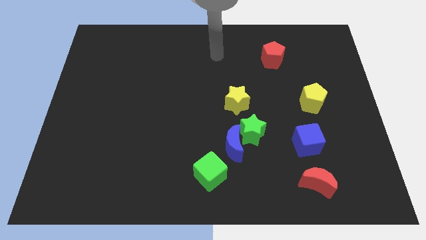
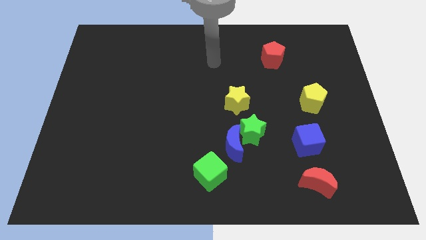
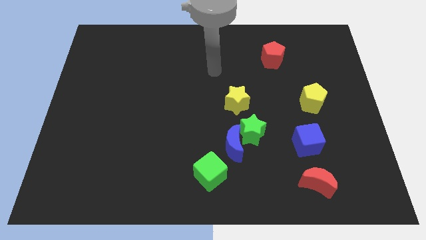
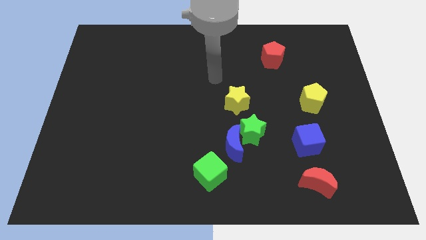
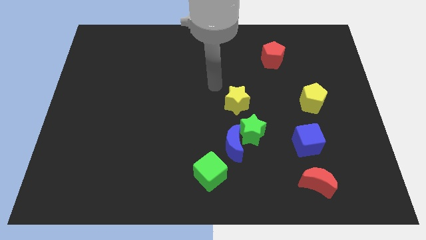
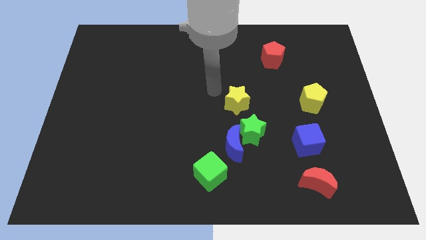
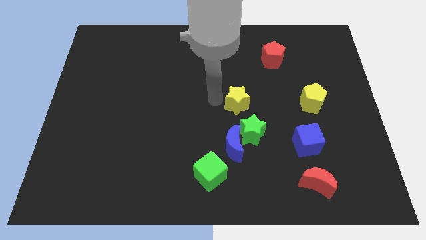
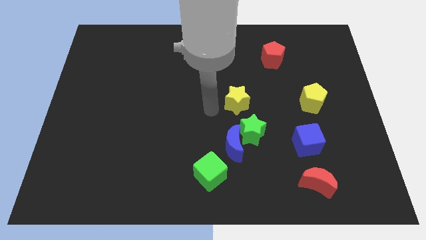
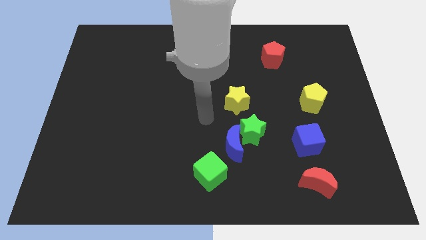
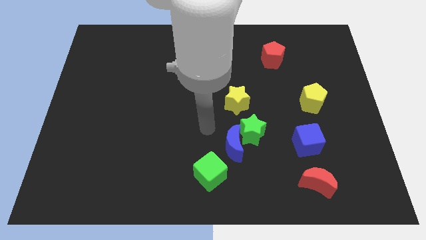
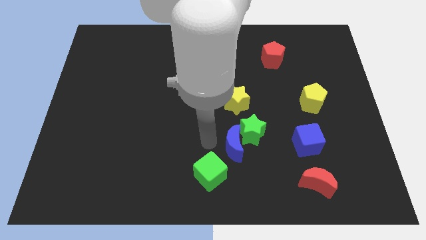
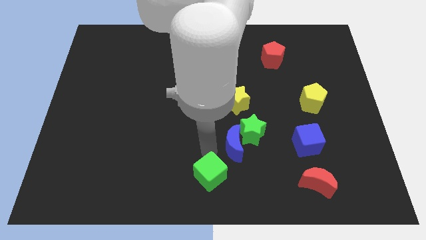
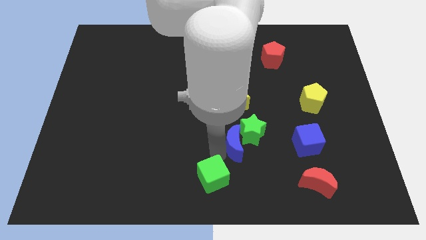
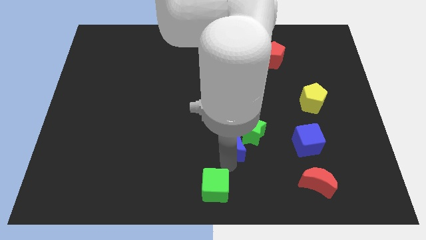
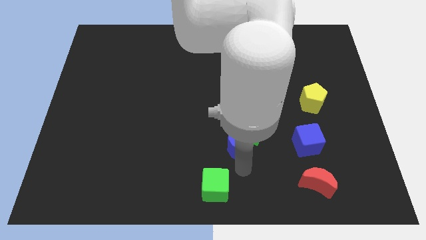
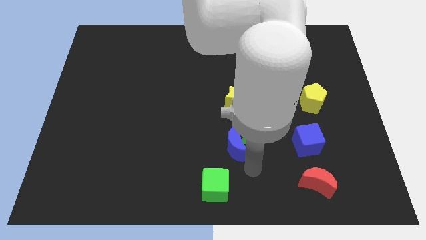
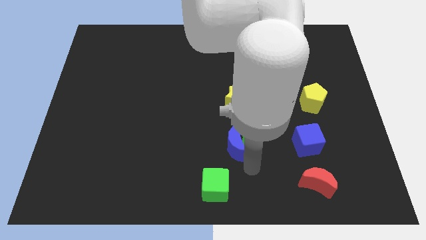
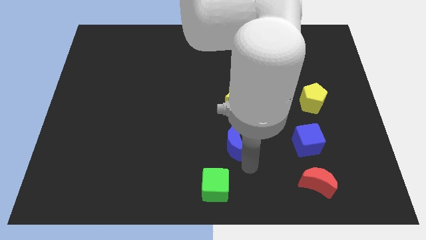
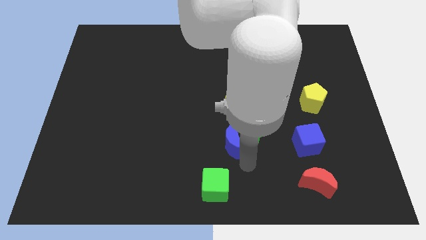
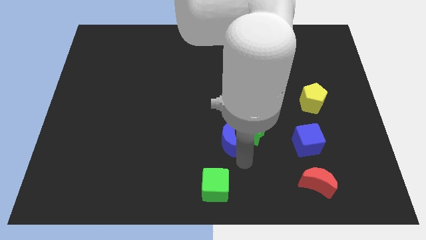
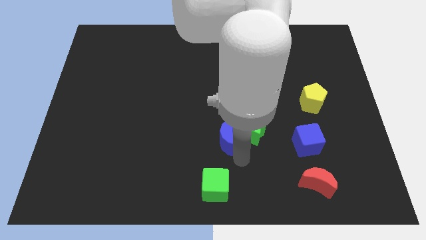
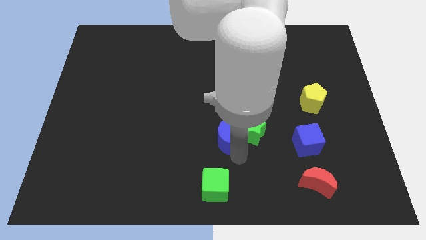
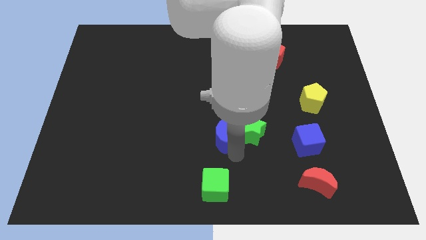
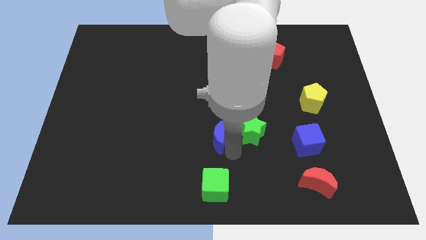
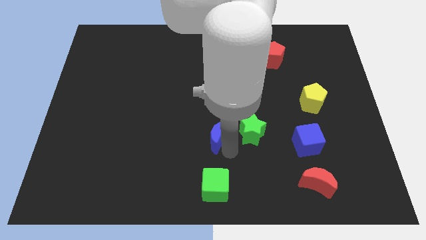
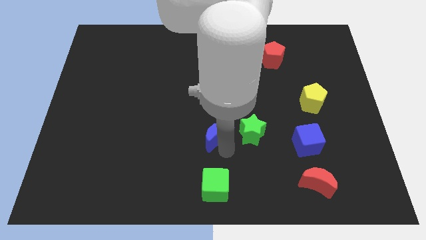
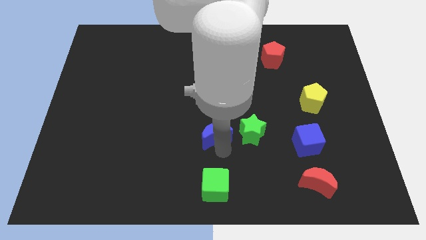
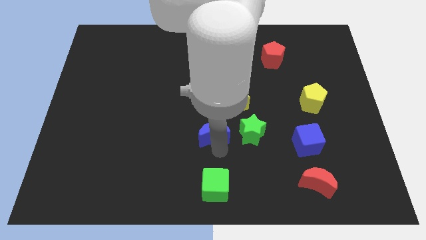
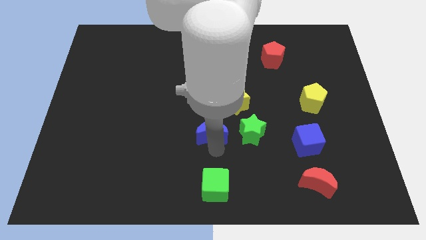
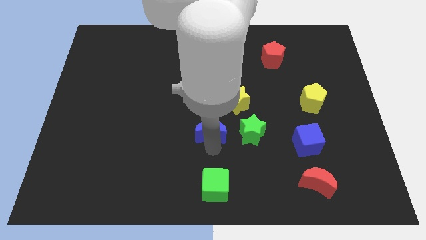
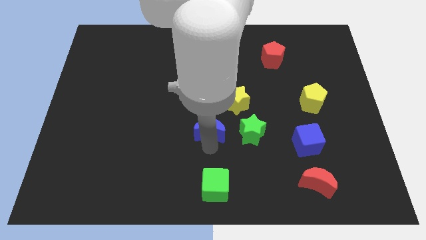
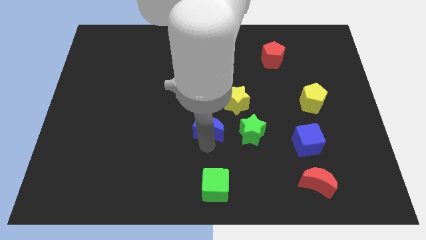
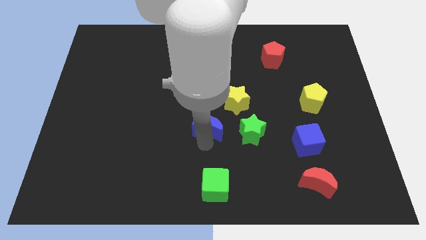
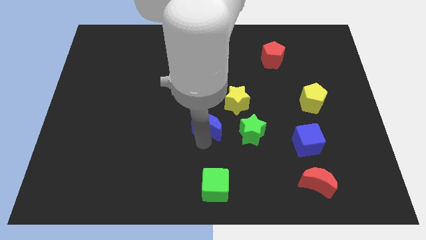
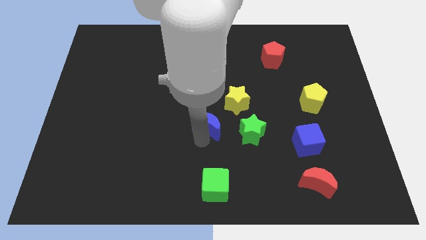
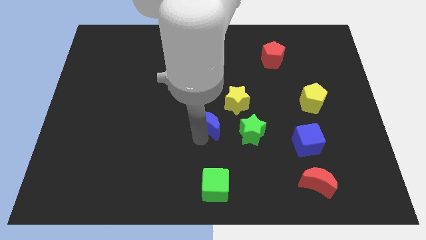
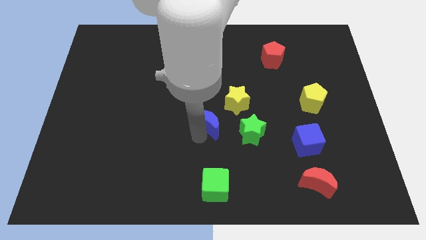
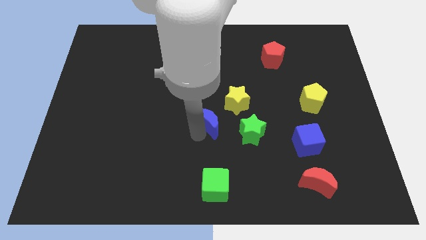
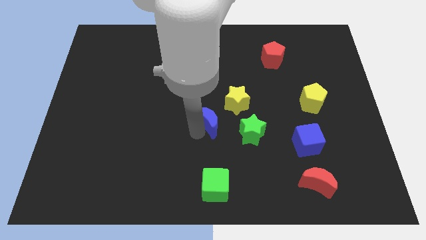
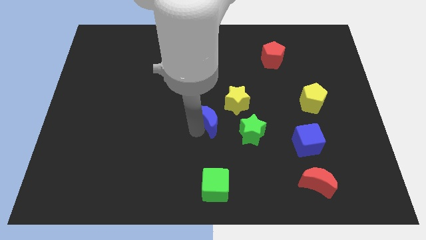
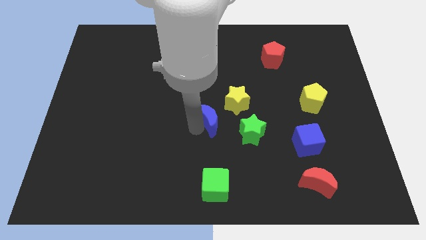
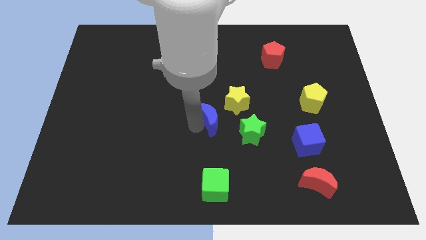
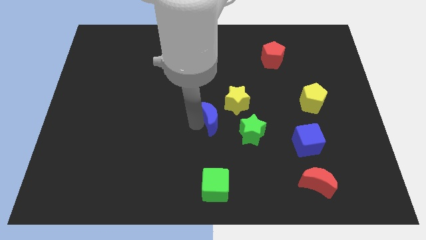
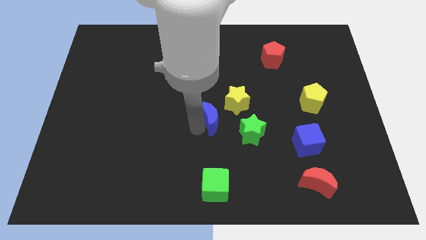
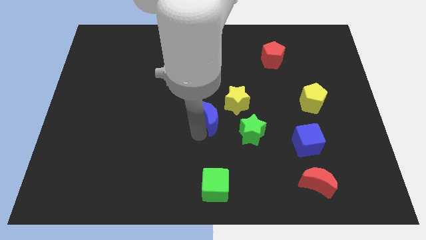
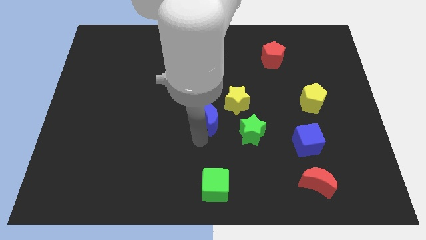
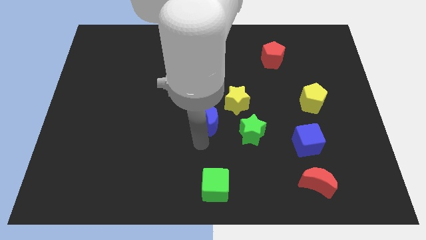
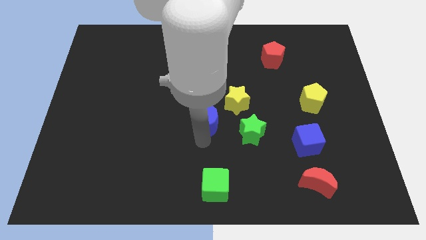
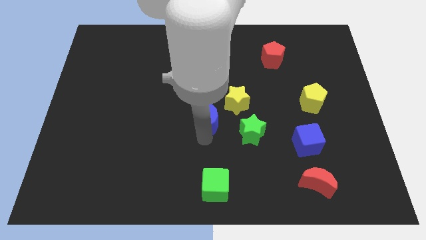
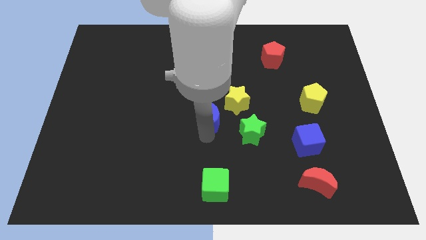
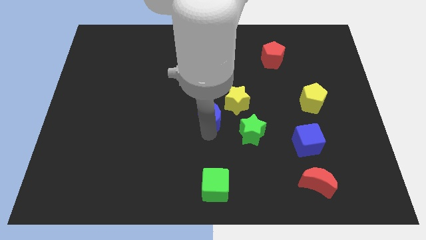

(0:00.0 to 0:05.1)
move the blue moon a bit upwards

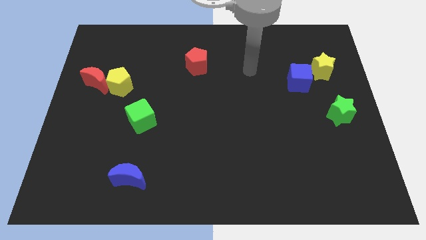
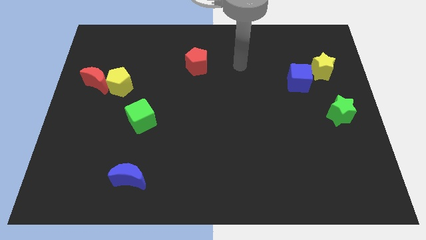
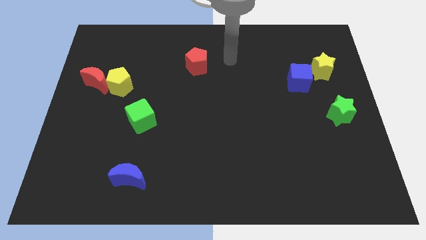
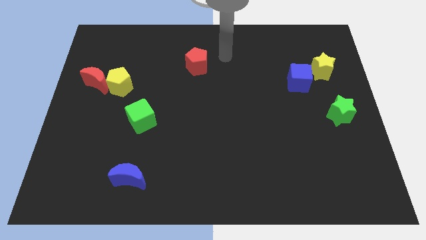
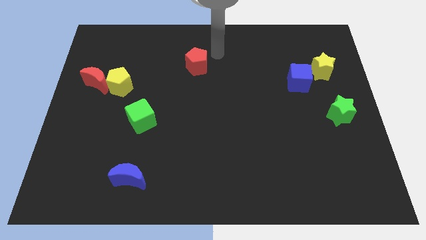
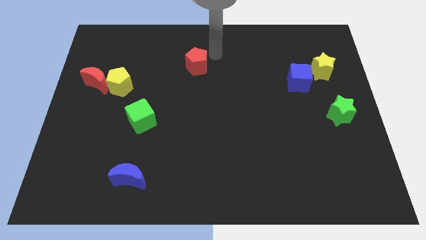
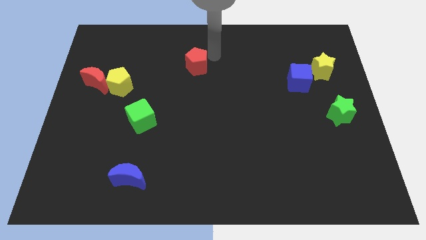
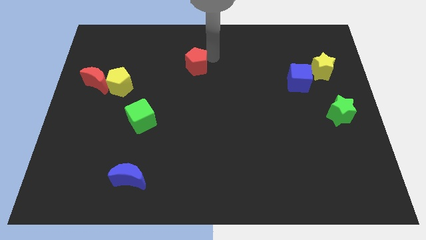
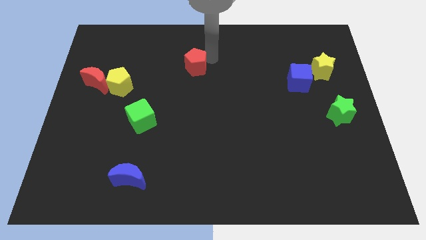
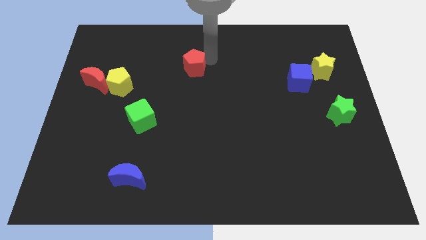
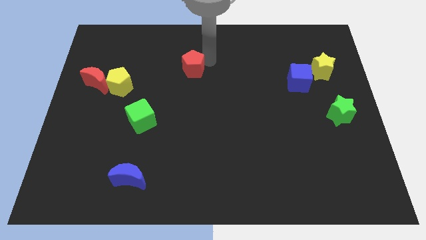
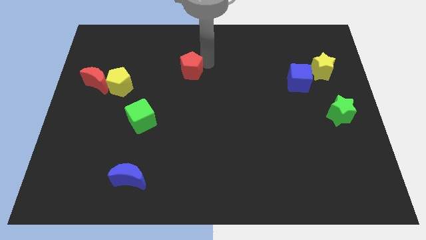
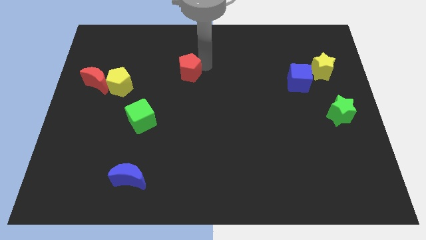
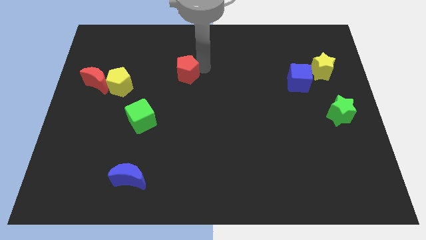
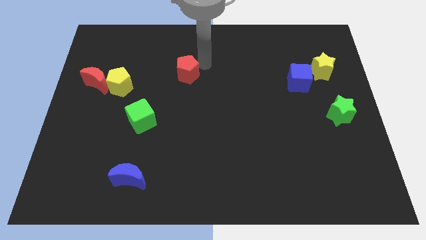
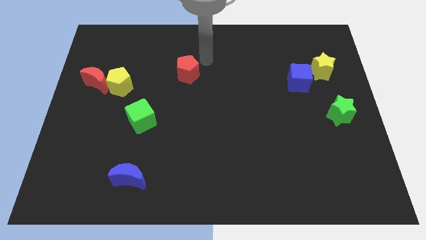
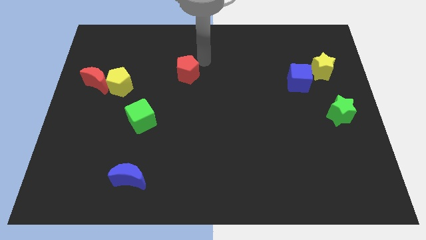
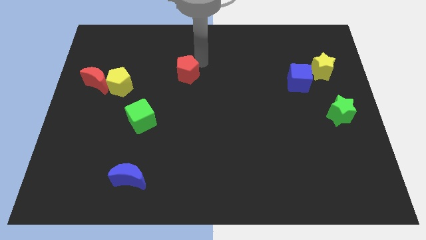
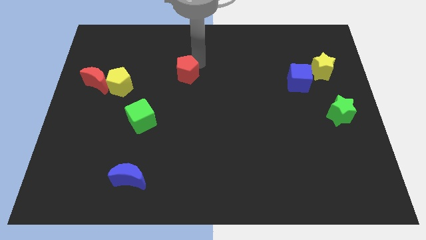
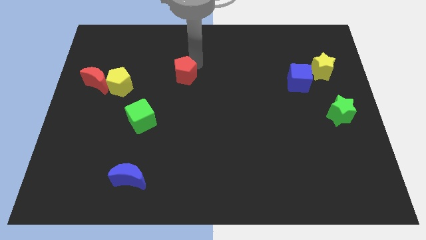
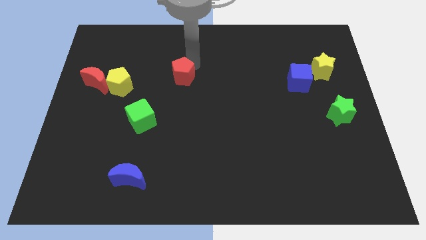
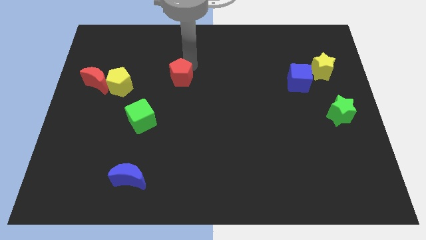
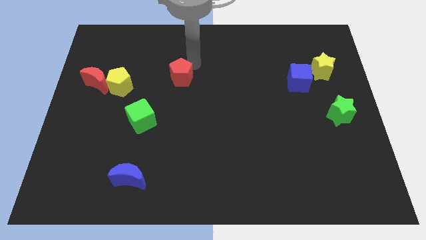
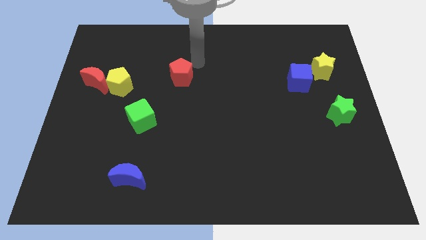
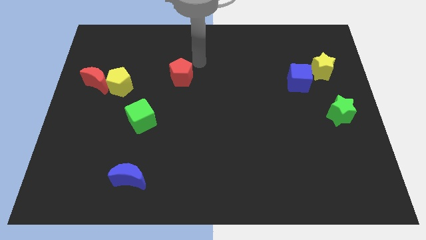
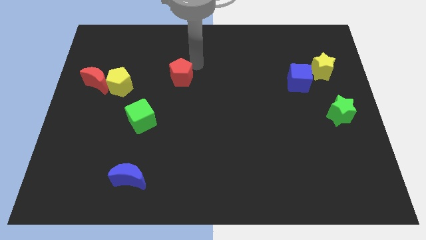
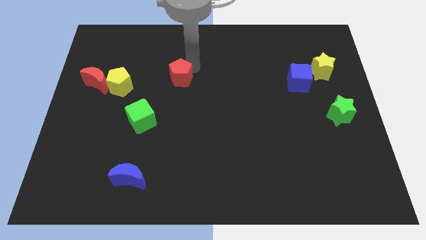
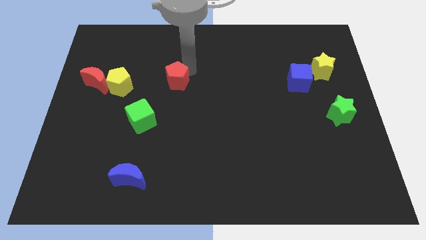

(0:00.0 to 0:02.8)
move the red pentagon somewhat diagonally downwards and left

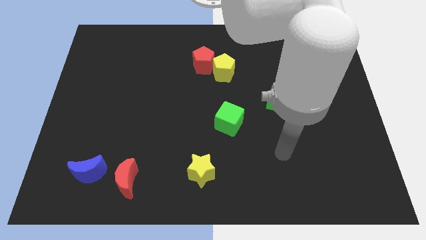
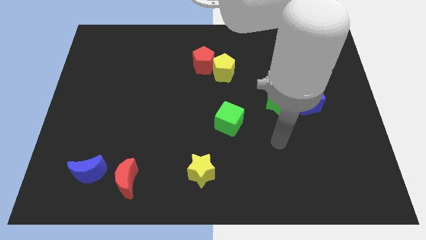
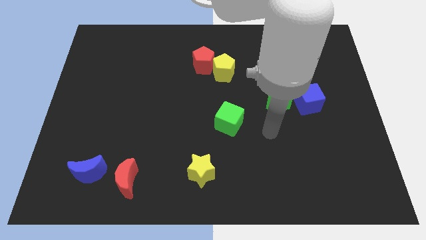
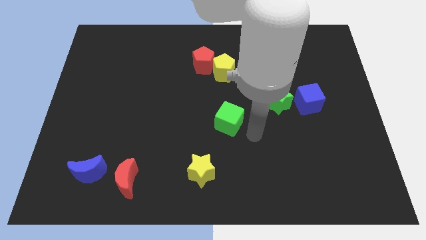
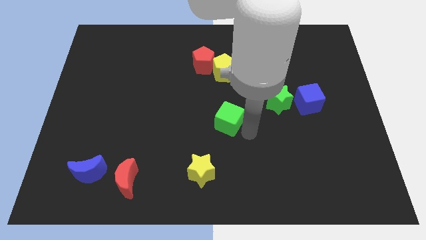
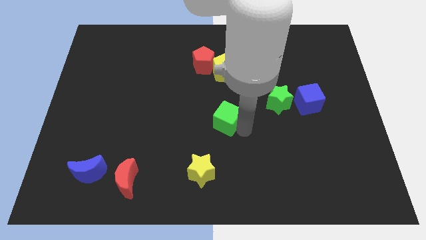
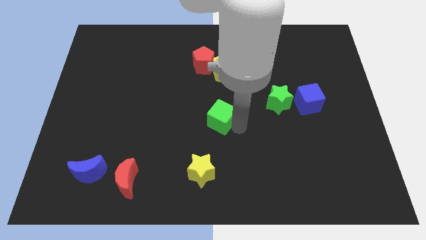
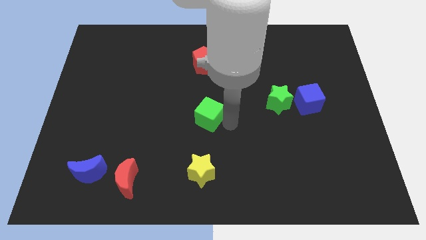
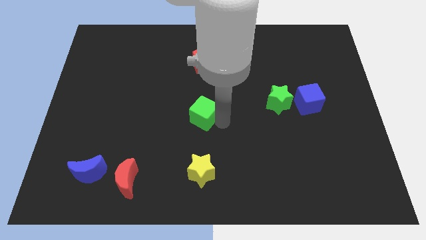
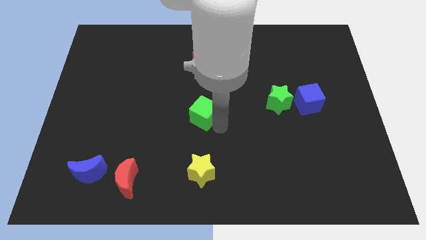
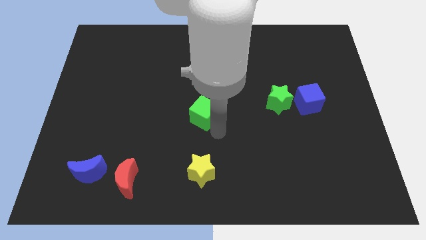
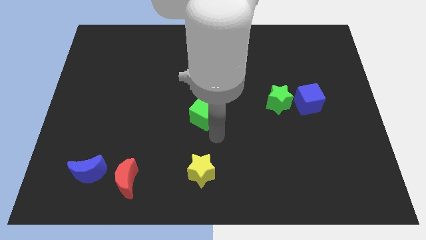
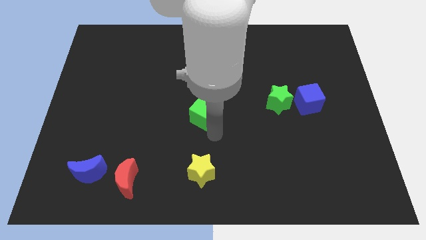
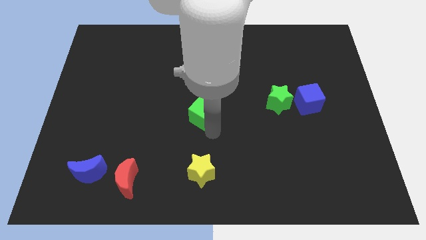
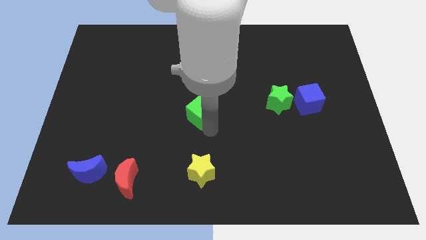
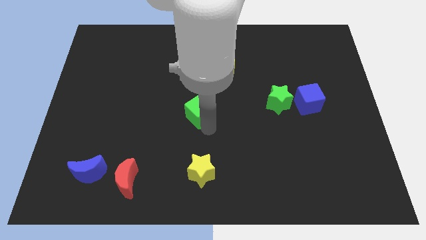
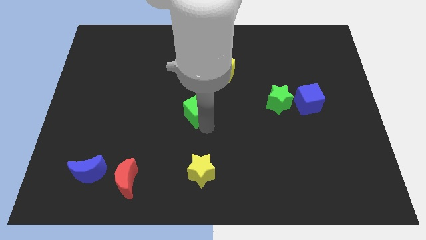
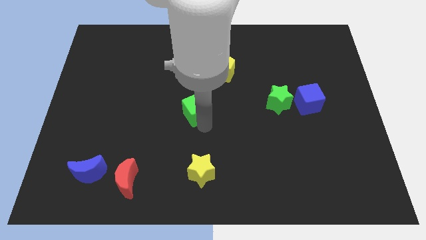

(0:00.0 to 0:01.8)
slightly slide the green cube up and to the left
